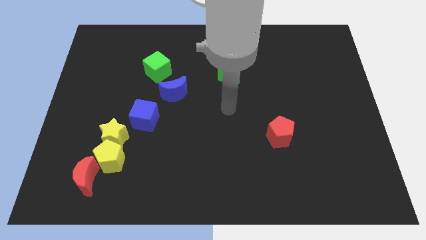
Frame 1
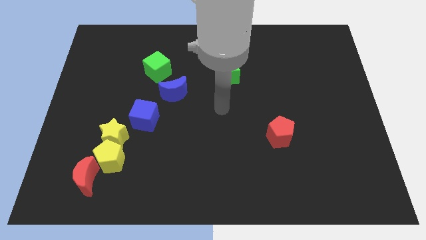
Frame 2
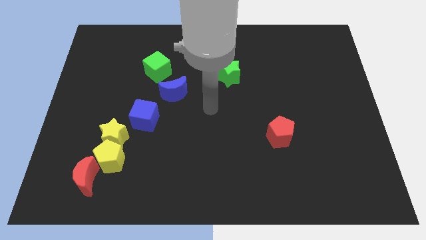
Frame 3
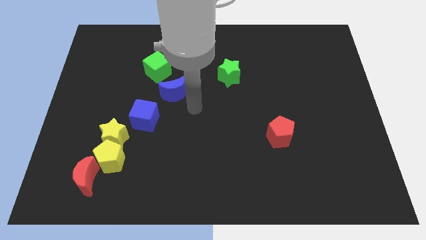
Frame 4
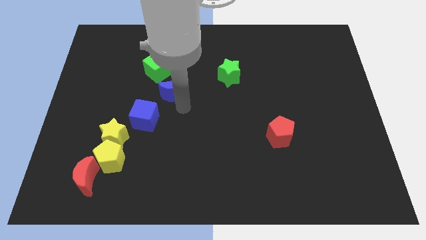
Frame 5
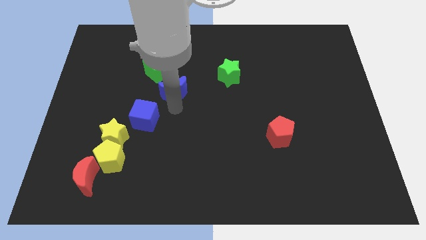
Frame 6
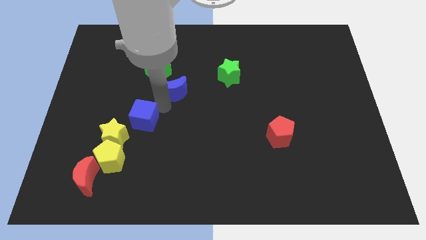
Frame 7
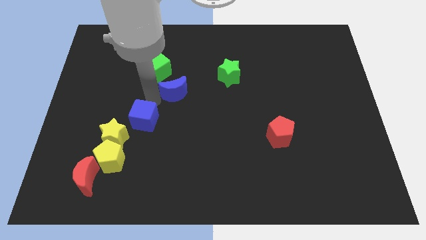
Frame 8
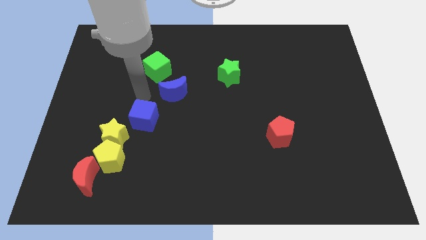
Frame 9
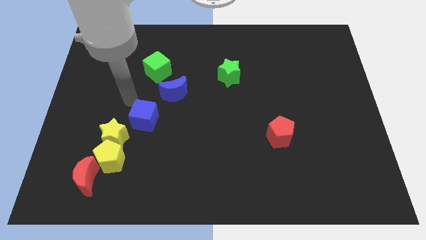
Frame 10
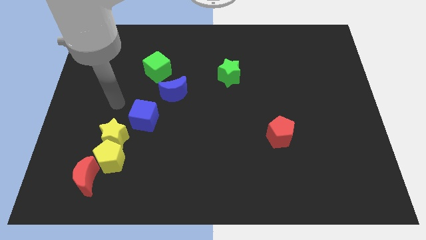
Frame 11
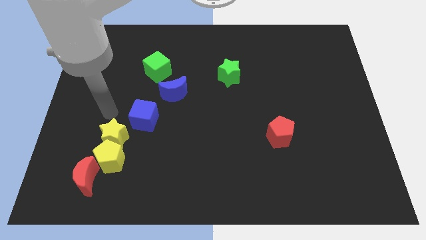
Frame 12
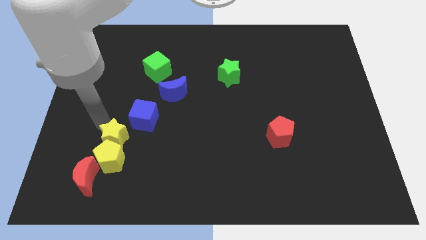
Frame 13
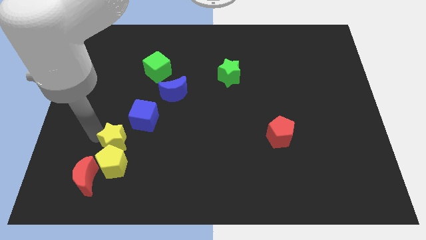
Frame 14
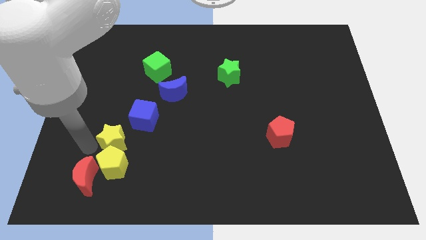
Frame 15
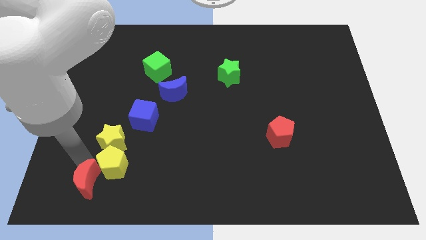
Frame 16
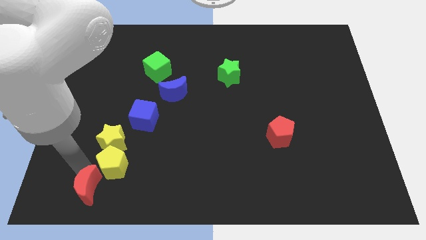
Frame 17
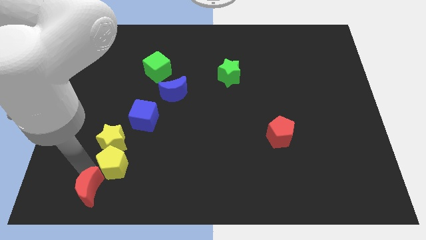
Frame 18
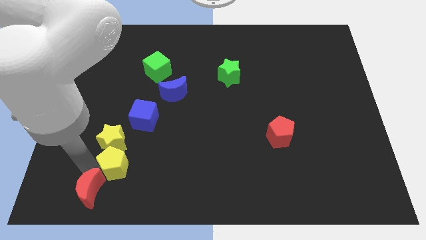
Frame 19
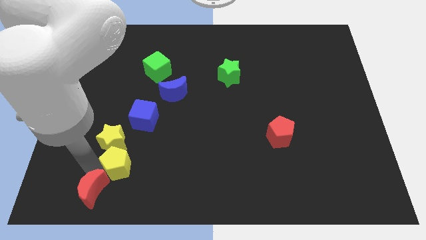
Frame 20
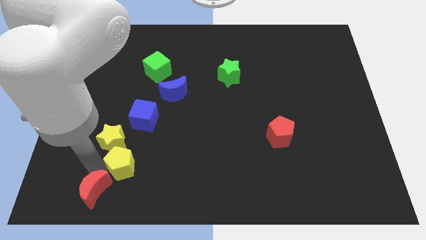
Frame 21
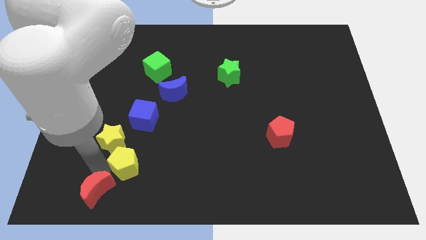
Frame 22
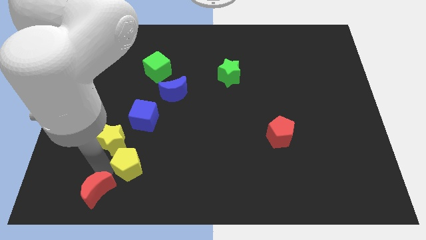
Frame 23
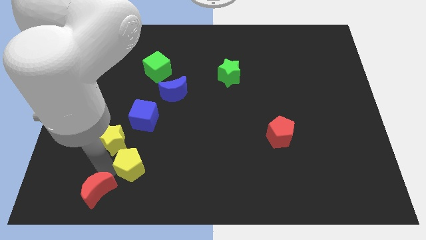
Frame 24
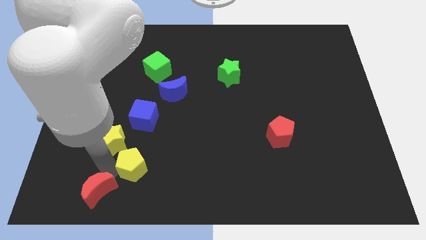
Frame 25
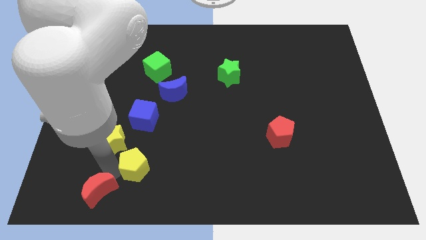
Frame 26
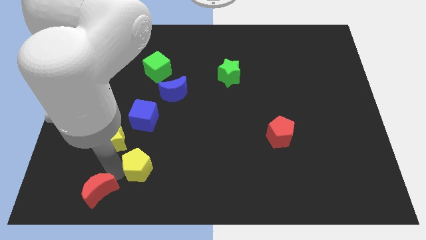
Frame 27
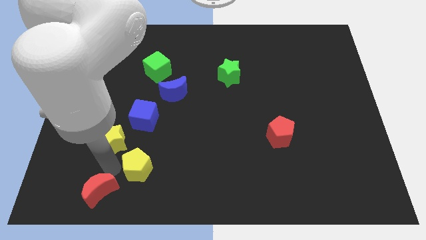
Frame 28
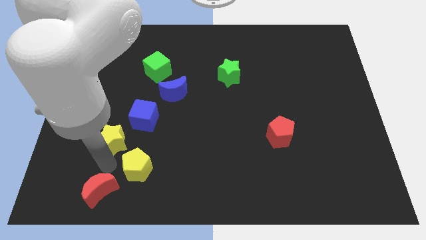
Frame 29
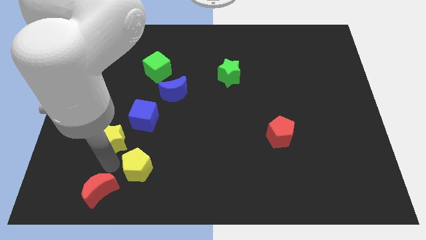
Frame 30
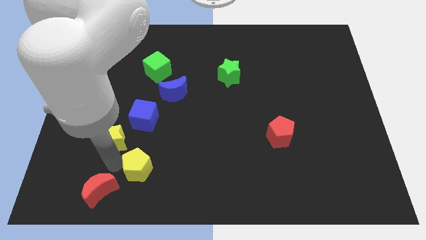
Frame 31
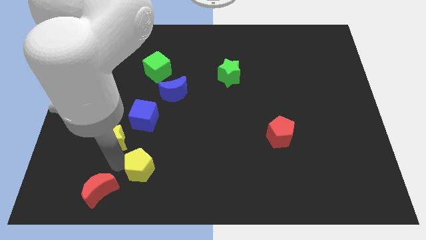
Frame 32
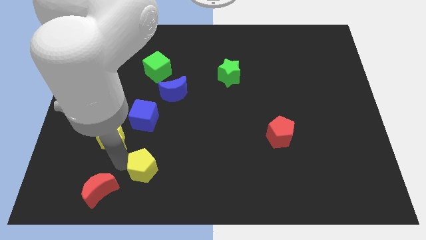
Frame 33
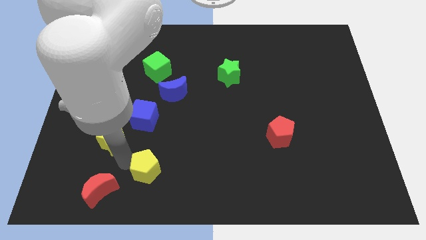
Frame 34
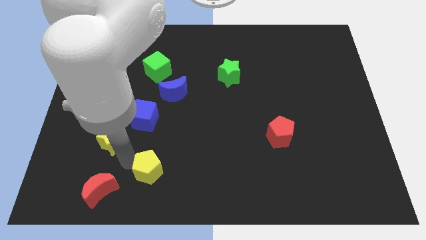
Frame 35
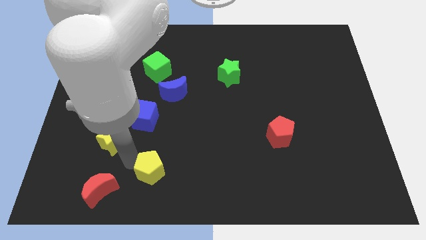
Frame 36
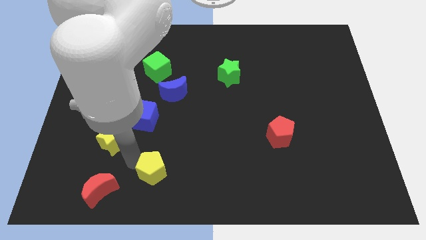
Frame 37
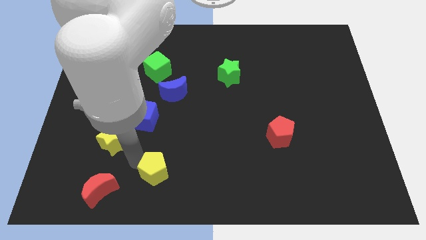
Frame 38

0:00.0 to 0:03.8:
separate the yellow pentagon from the yellow star and red moon

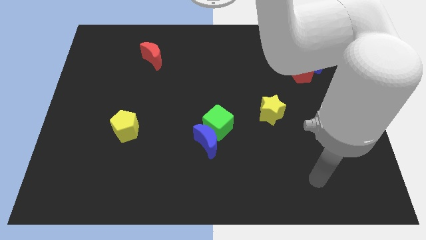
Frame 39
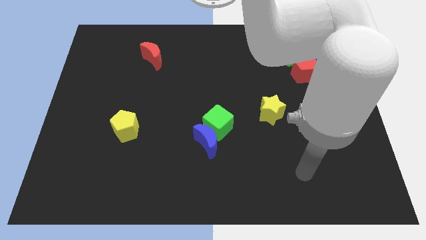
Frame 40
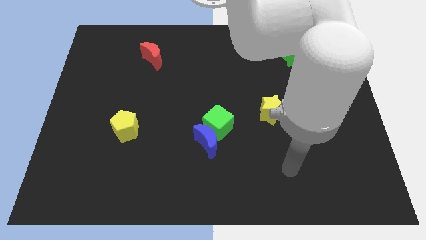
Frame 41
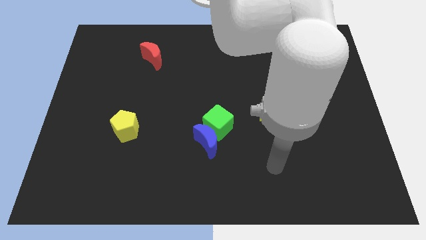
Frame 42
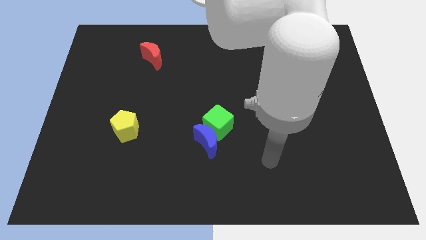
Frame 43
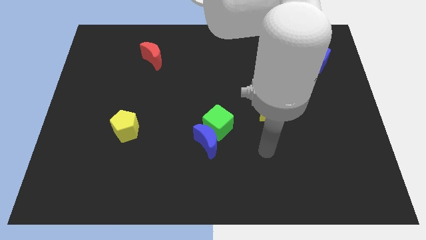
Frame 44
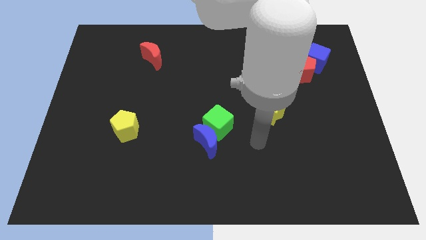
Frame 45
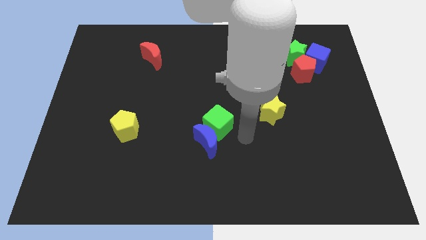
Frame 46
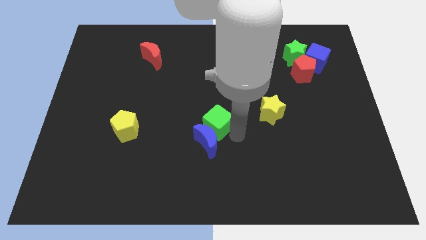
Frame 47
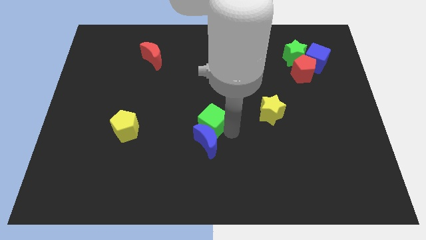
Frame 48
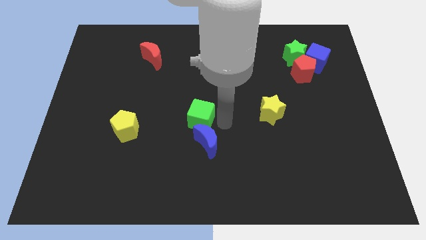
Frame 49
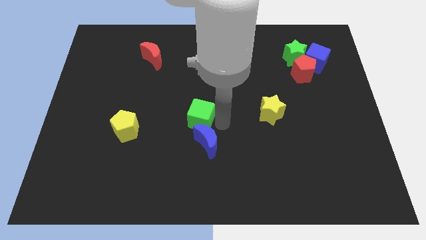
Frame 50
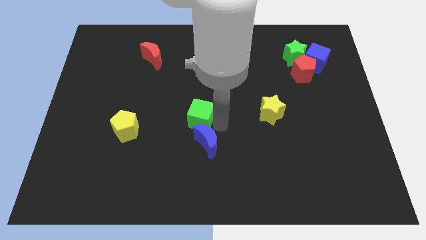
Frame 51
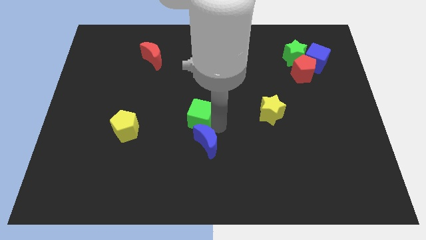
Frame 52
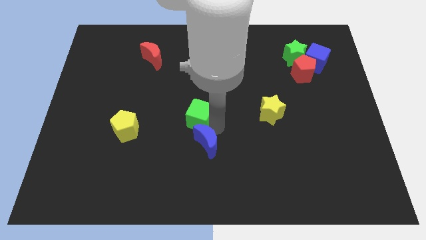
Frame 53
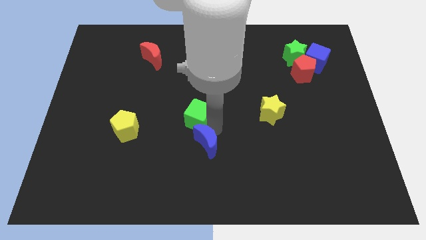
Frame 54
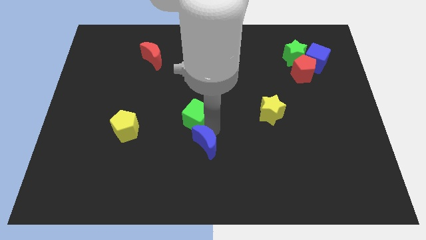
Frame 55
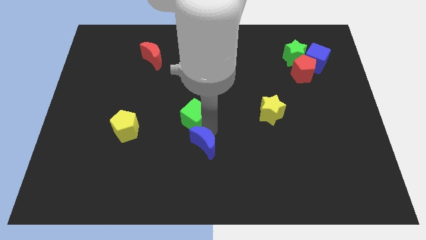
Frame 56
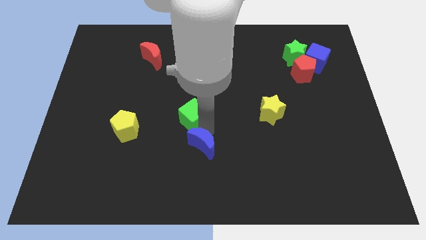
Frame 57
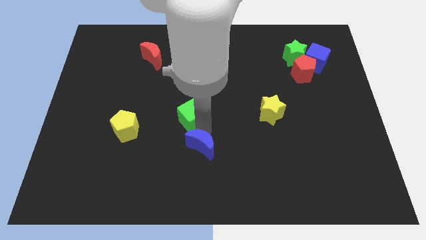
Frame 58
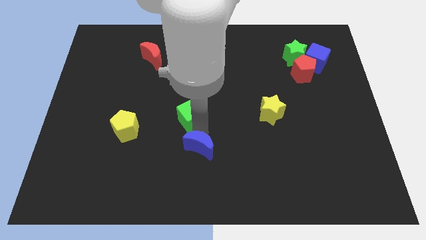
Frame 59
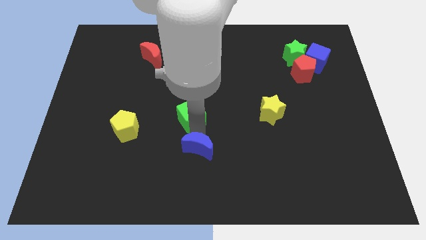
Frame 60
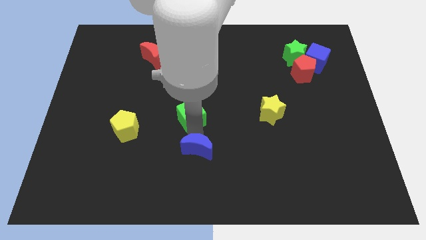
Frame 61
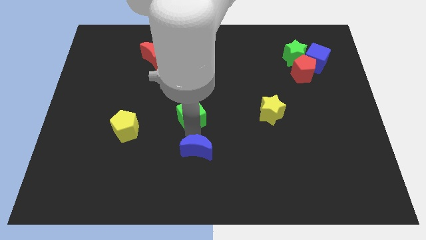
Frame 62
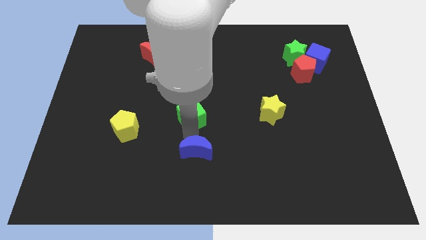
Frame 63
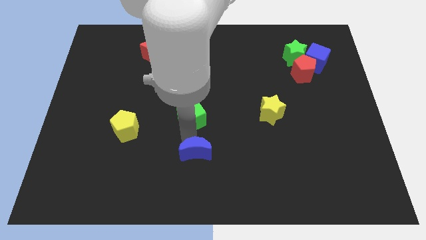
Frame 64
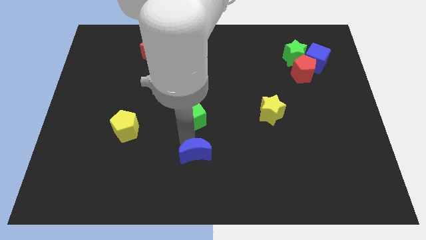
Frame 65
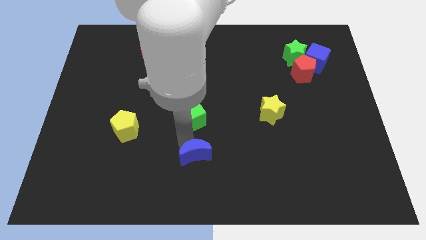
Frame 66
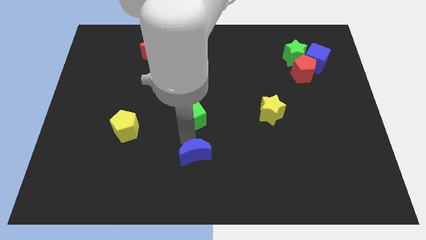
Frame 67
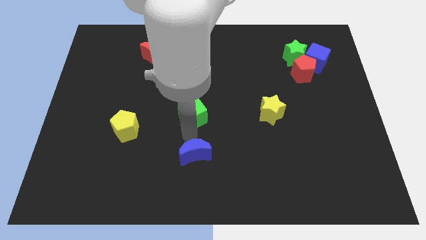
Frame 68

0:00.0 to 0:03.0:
pull the blue moon apart from the green cube

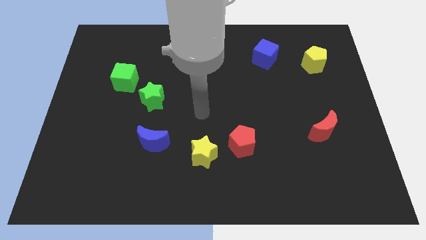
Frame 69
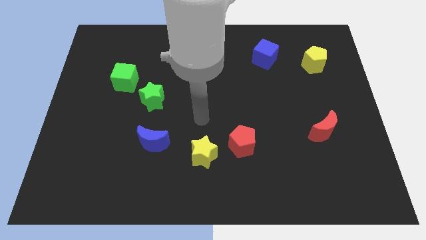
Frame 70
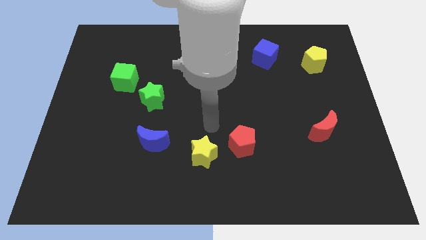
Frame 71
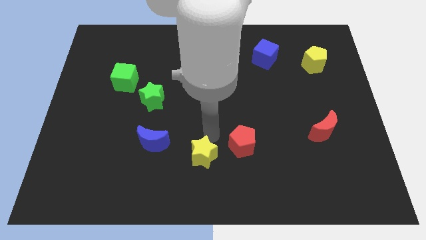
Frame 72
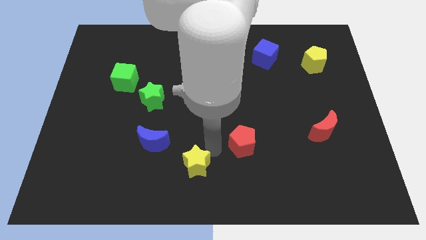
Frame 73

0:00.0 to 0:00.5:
pull the red pentagon apart from the yellow star

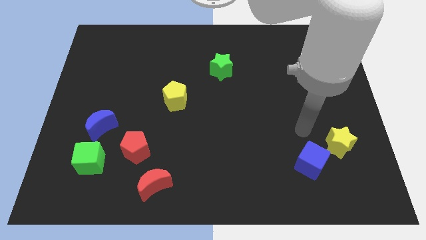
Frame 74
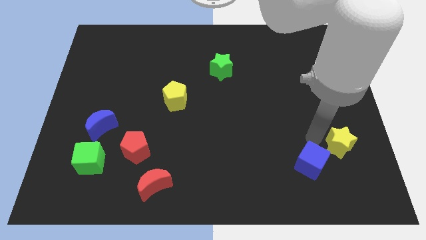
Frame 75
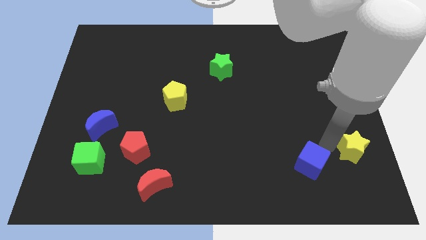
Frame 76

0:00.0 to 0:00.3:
separate the blue cube from the yellow star

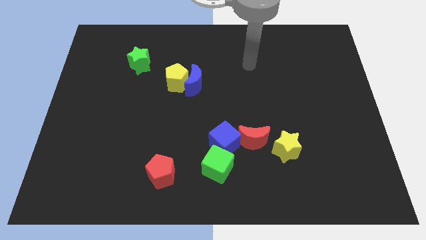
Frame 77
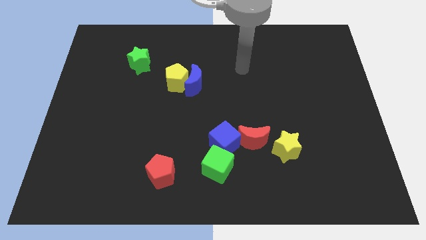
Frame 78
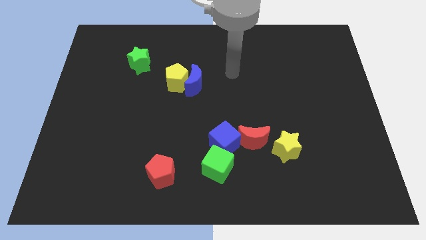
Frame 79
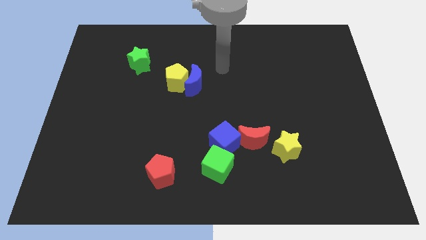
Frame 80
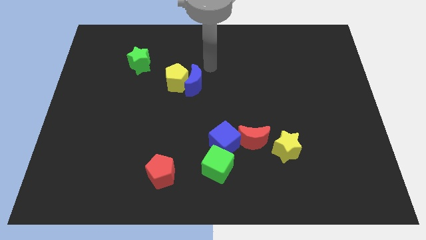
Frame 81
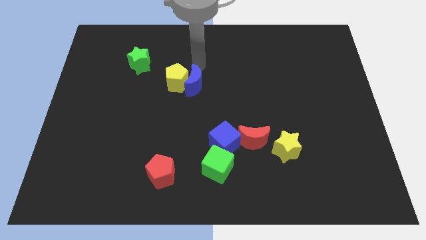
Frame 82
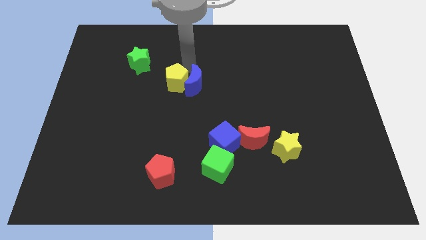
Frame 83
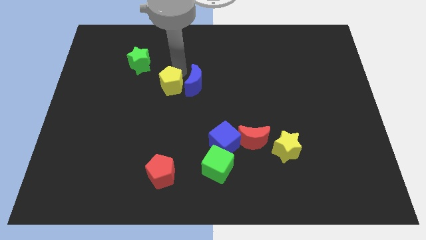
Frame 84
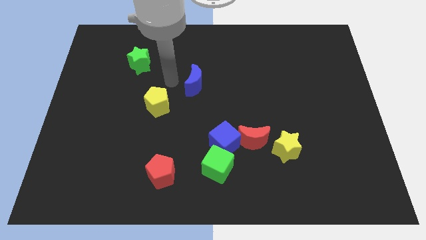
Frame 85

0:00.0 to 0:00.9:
move the blue moon away from the yellow pentagon

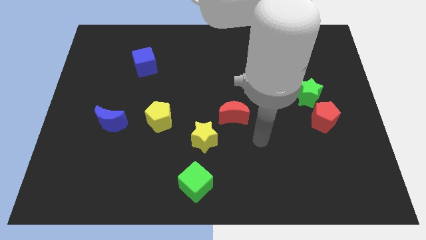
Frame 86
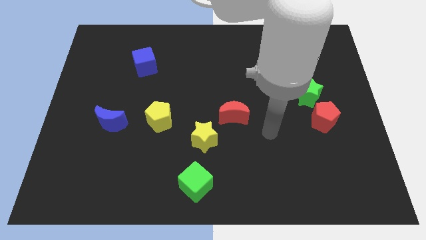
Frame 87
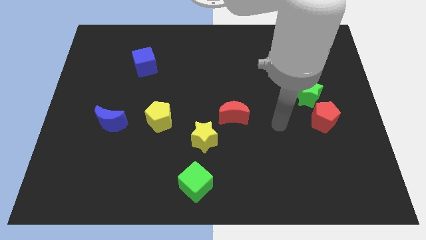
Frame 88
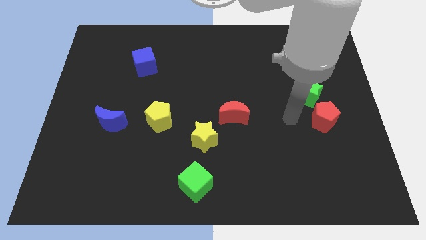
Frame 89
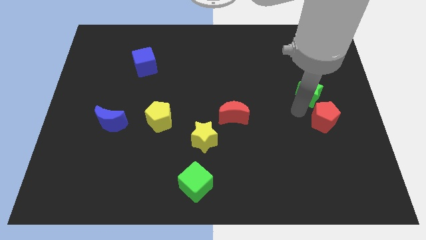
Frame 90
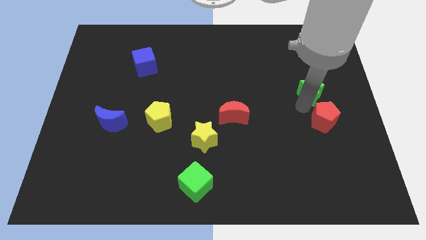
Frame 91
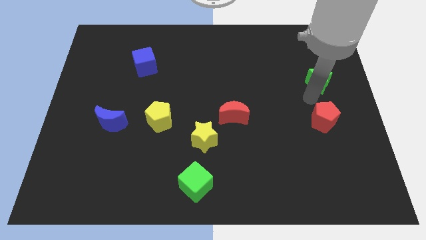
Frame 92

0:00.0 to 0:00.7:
move the red pentagon away from the green star
